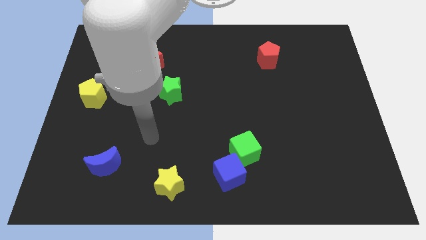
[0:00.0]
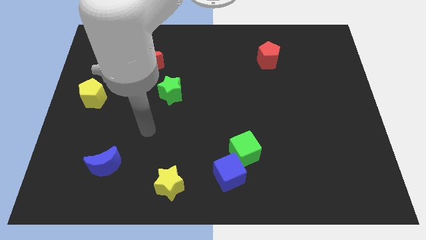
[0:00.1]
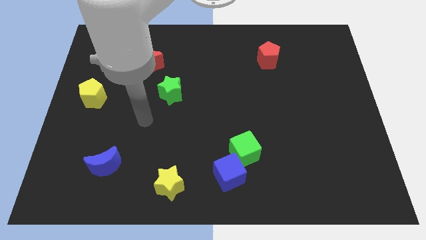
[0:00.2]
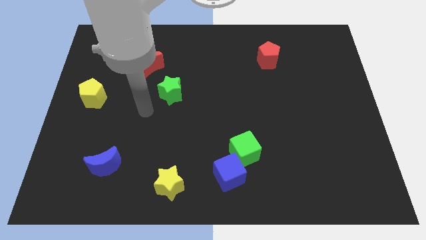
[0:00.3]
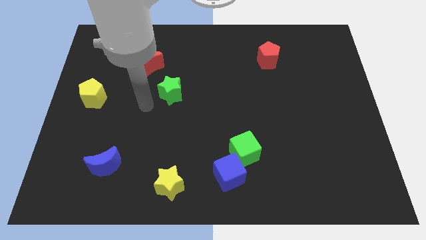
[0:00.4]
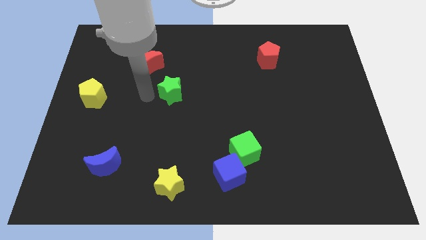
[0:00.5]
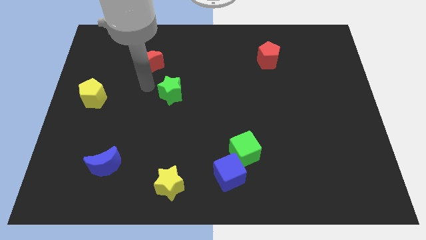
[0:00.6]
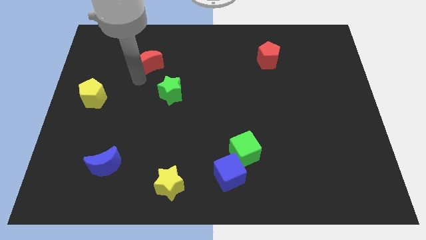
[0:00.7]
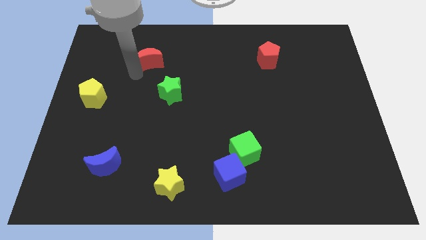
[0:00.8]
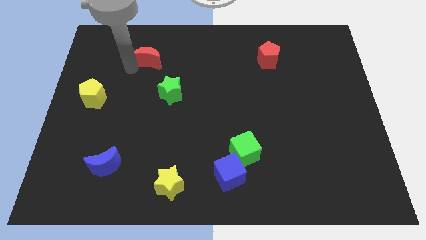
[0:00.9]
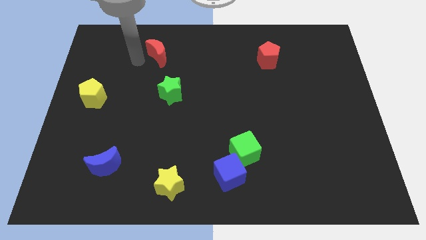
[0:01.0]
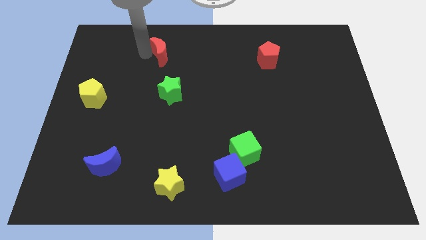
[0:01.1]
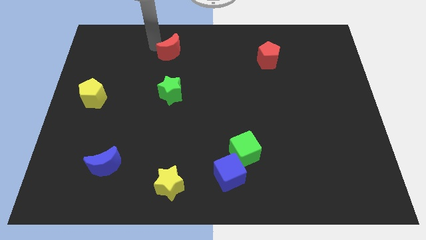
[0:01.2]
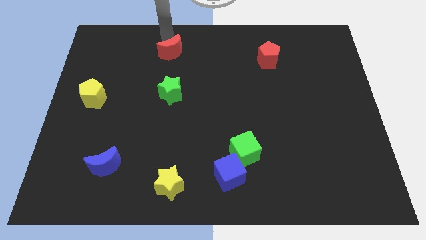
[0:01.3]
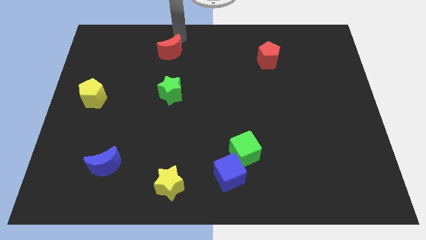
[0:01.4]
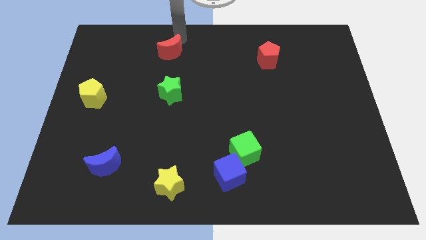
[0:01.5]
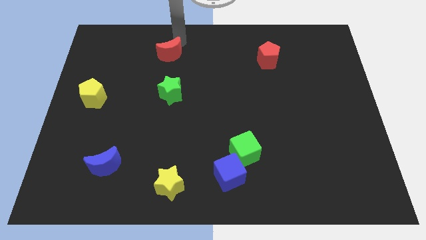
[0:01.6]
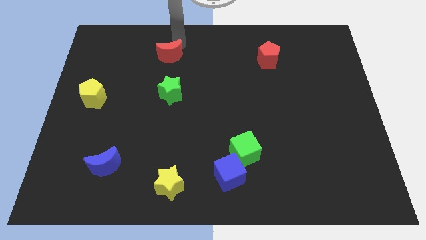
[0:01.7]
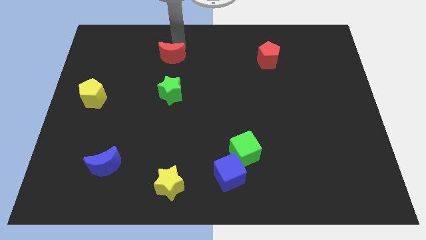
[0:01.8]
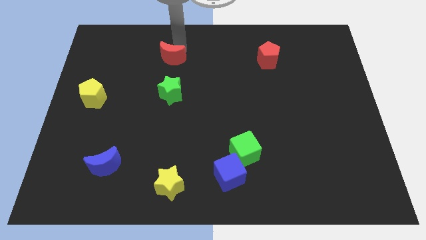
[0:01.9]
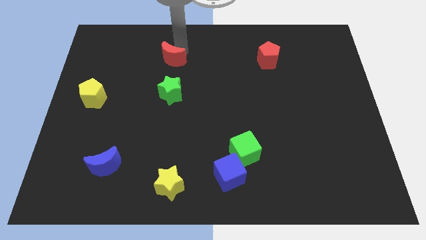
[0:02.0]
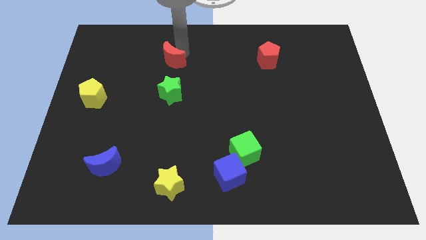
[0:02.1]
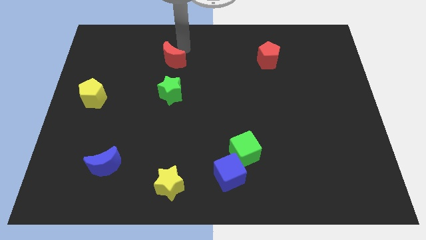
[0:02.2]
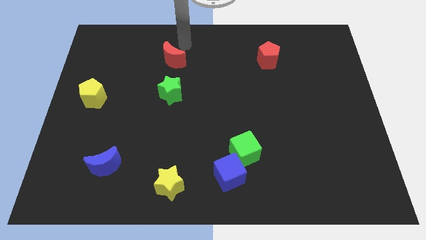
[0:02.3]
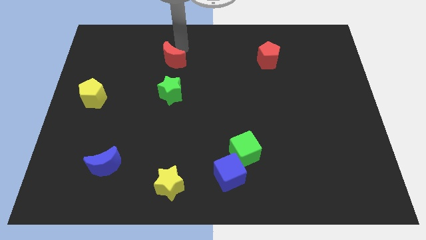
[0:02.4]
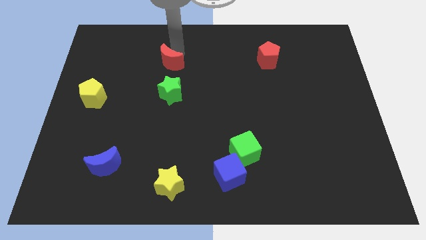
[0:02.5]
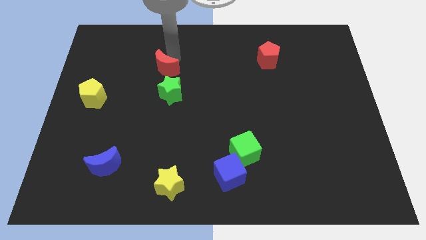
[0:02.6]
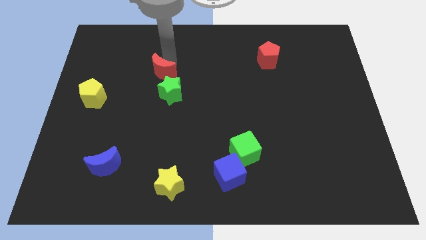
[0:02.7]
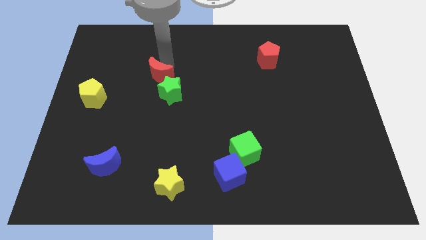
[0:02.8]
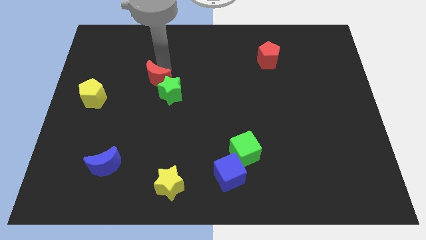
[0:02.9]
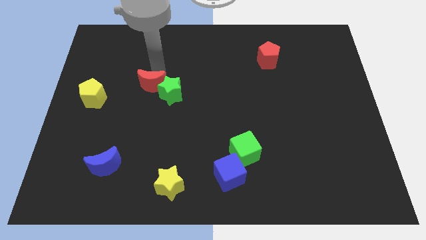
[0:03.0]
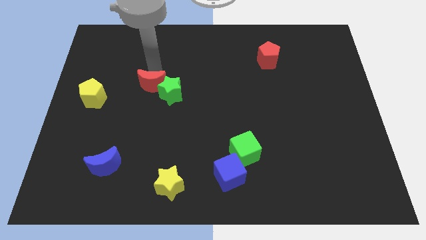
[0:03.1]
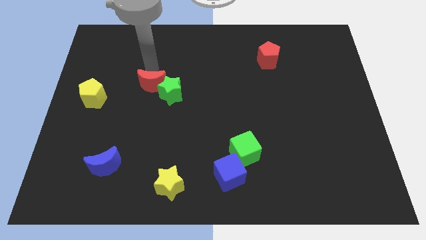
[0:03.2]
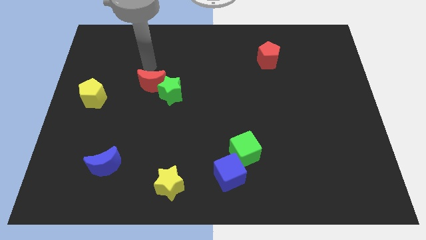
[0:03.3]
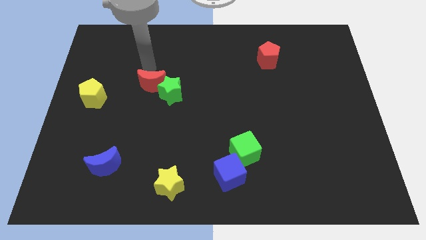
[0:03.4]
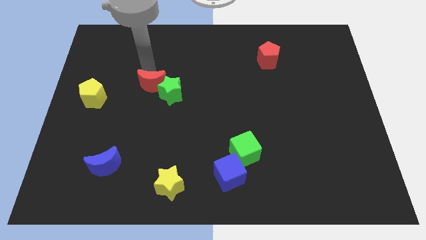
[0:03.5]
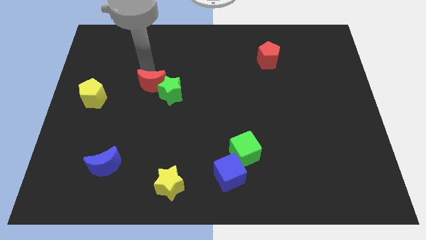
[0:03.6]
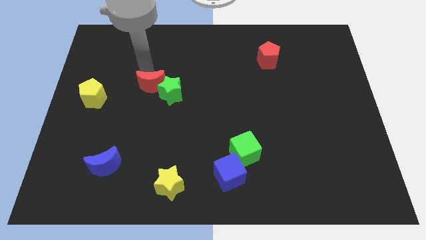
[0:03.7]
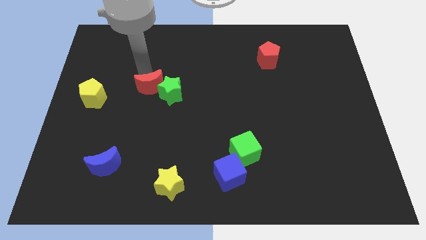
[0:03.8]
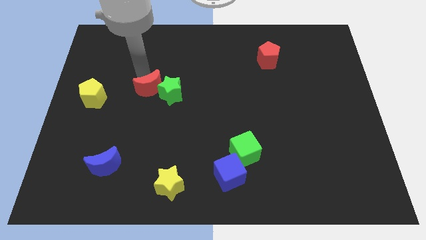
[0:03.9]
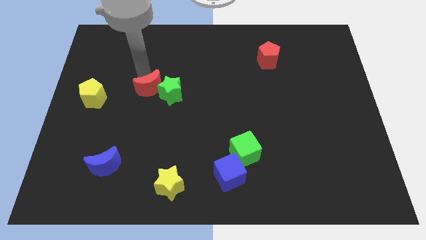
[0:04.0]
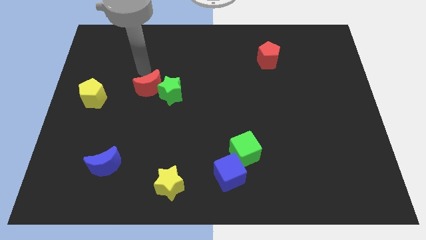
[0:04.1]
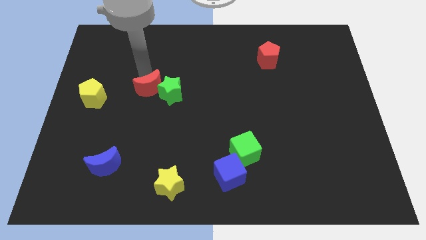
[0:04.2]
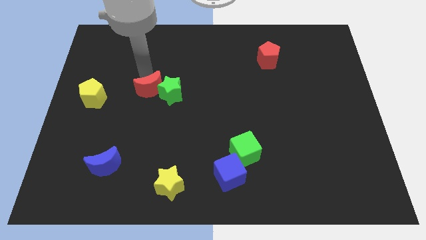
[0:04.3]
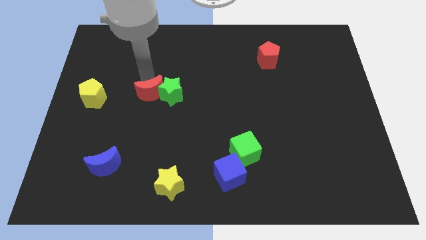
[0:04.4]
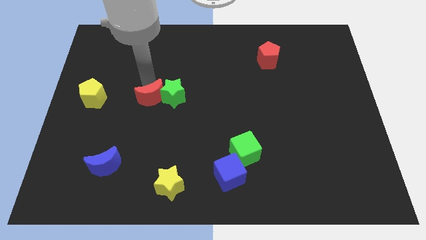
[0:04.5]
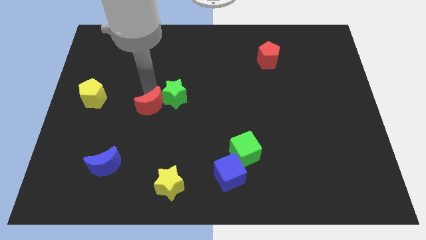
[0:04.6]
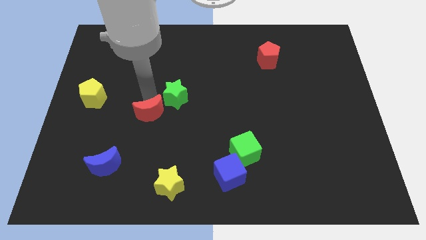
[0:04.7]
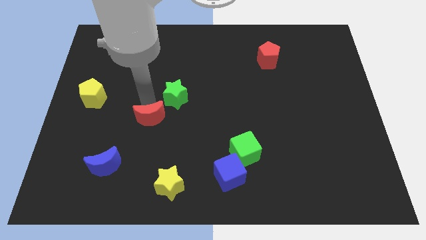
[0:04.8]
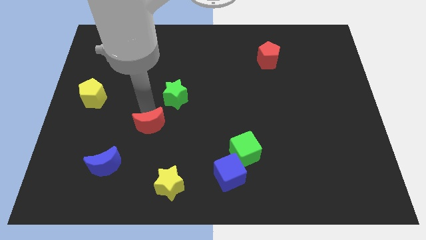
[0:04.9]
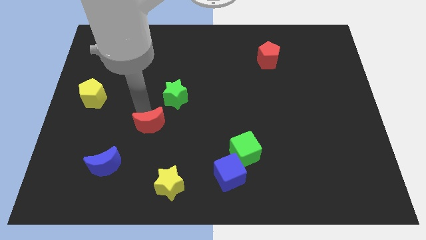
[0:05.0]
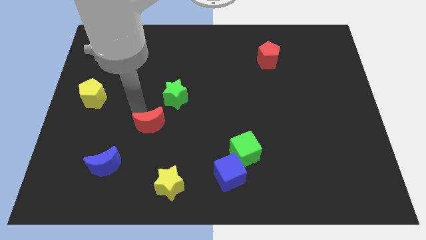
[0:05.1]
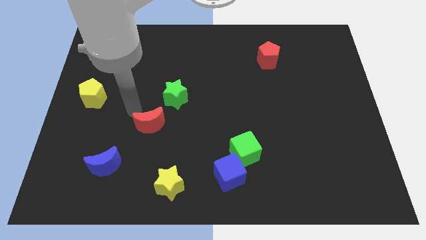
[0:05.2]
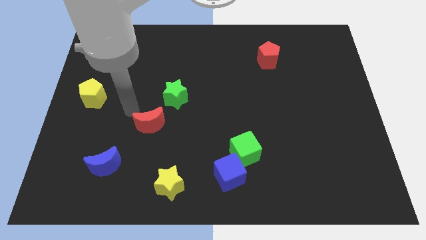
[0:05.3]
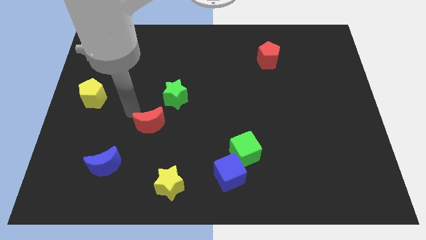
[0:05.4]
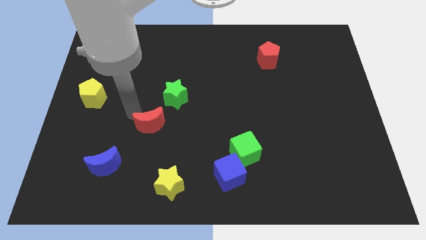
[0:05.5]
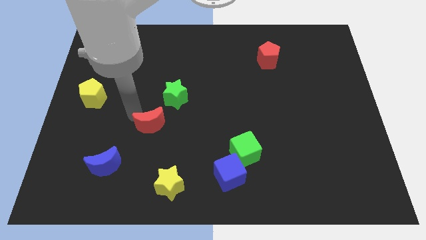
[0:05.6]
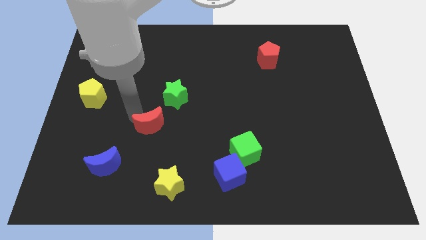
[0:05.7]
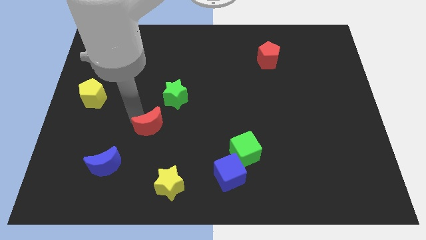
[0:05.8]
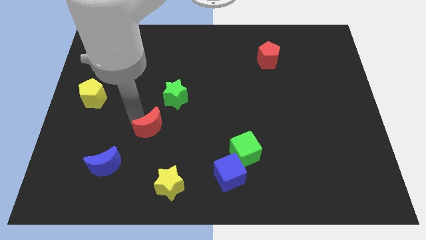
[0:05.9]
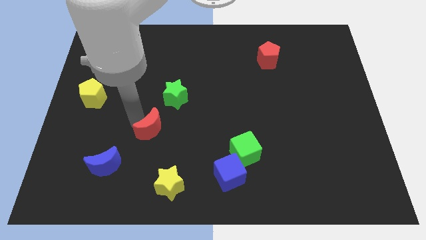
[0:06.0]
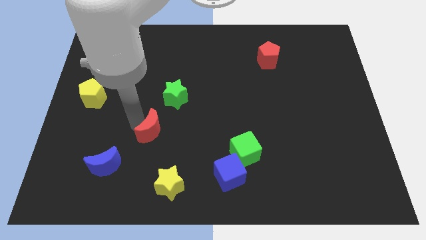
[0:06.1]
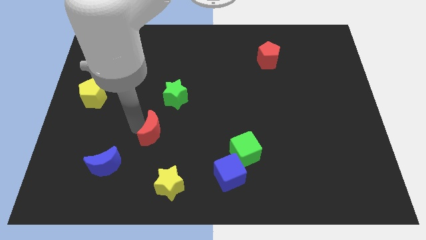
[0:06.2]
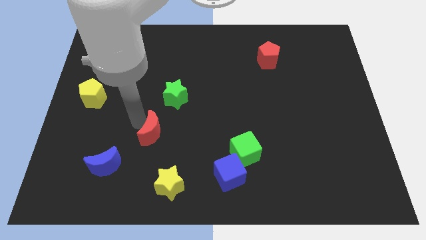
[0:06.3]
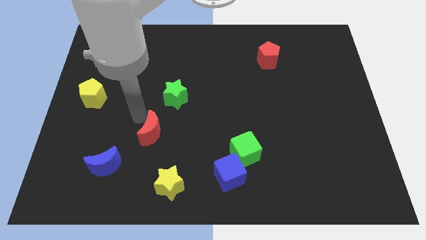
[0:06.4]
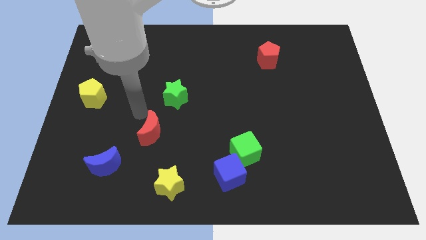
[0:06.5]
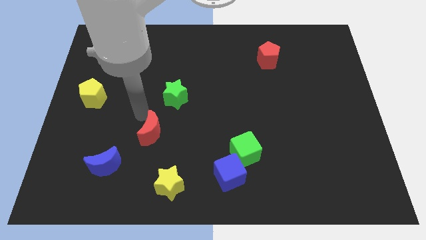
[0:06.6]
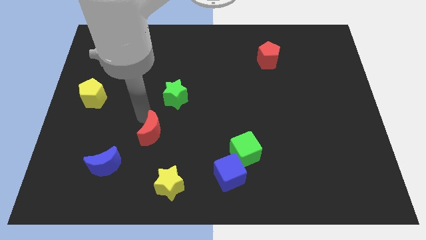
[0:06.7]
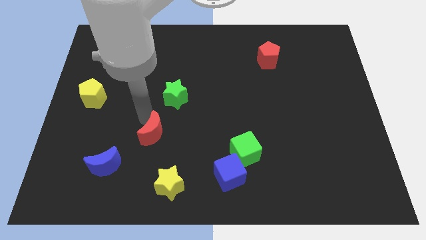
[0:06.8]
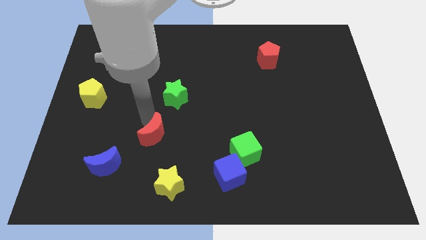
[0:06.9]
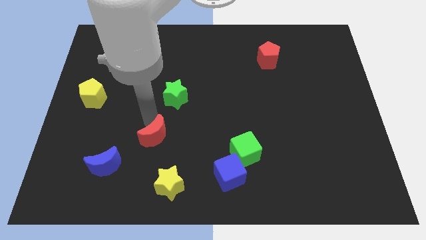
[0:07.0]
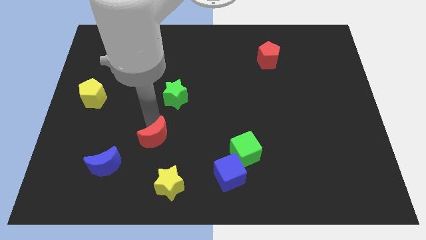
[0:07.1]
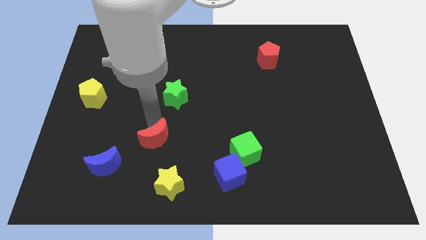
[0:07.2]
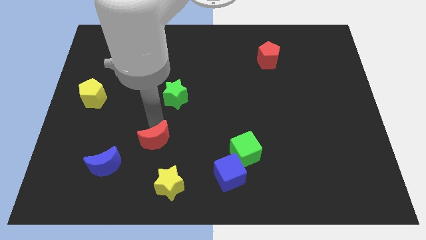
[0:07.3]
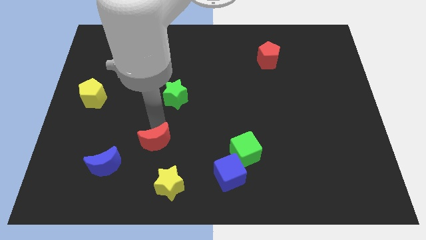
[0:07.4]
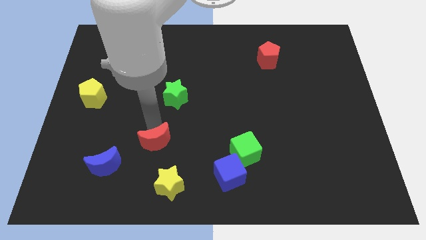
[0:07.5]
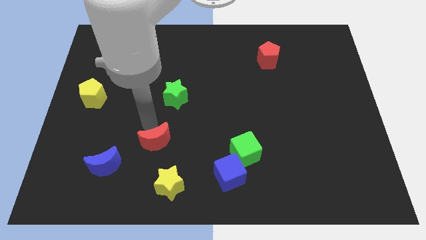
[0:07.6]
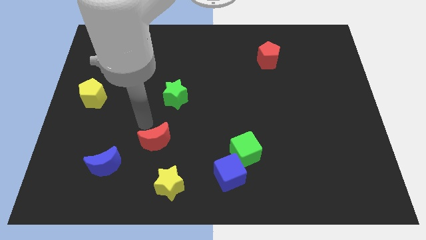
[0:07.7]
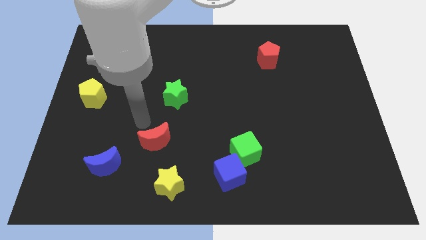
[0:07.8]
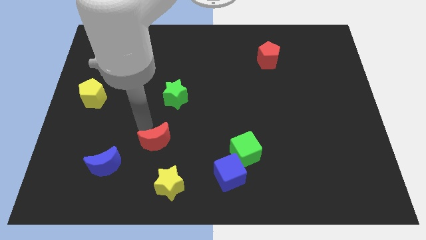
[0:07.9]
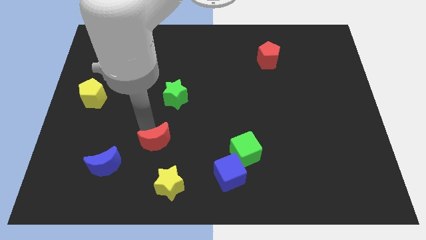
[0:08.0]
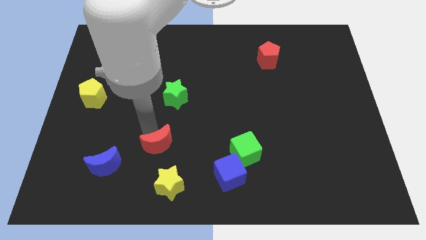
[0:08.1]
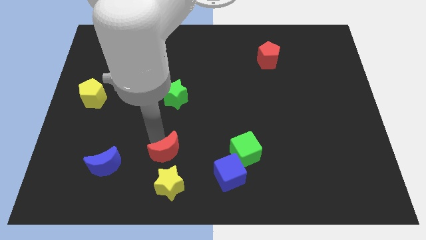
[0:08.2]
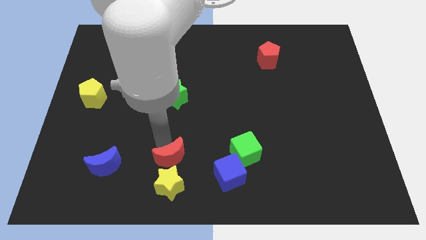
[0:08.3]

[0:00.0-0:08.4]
put the red moon close to the yellow star
